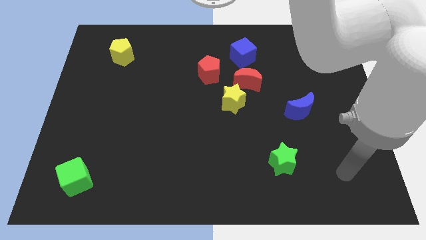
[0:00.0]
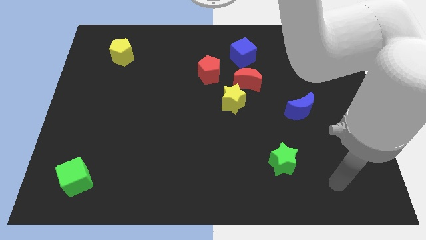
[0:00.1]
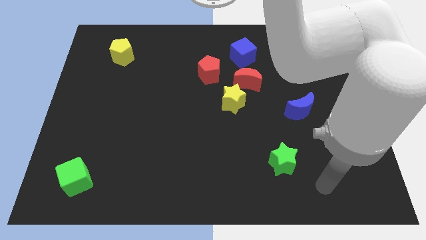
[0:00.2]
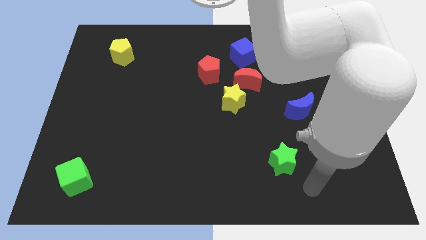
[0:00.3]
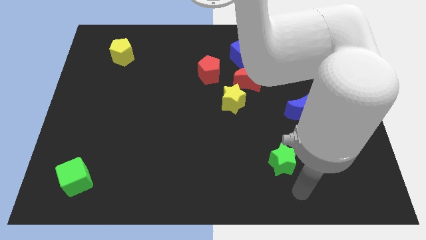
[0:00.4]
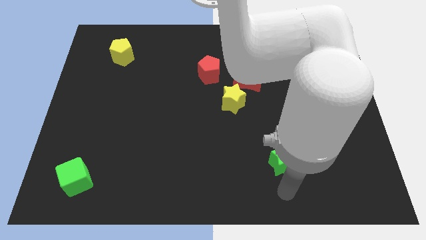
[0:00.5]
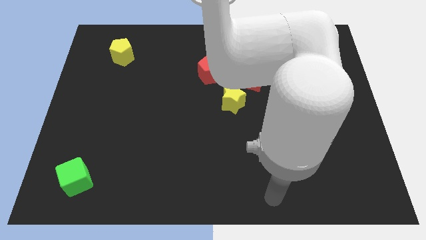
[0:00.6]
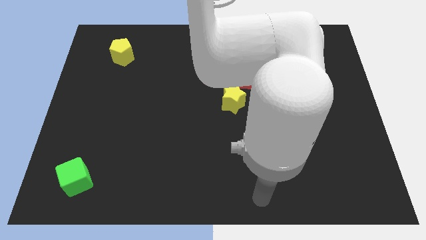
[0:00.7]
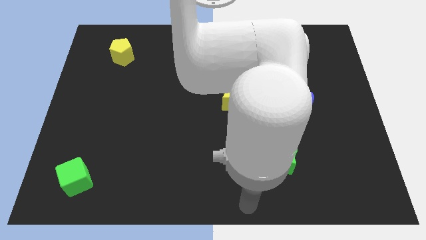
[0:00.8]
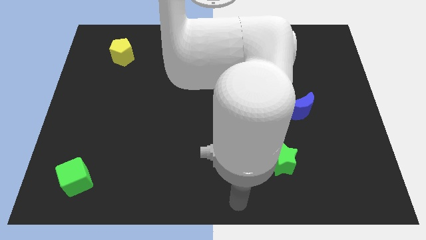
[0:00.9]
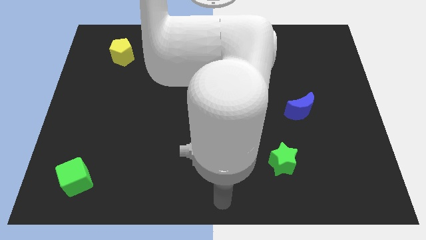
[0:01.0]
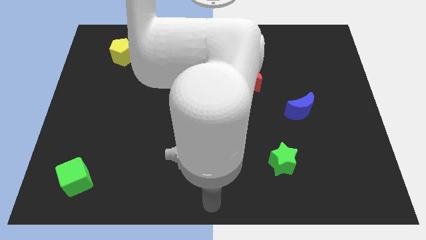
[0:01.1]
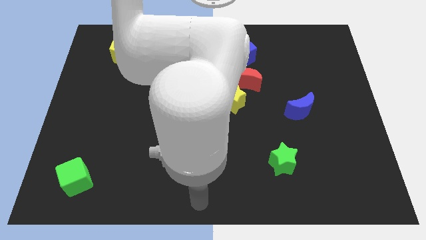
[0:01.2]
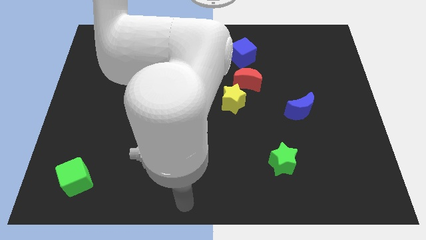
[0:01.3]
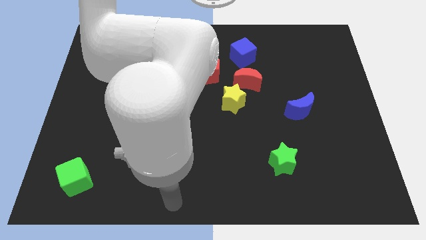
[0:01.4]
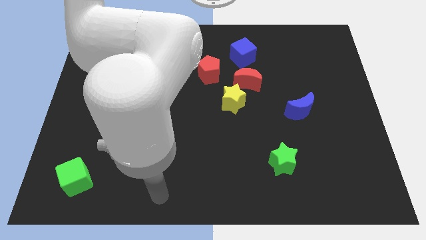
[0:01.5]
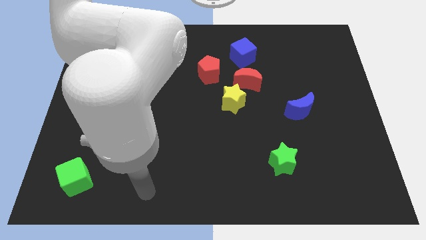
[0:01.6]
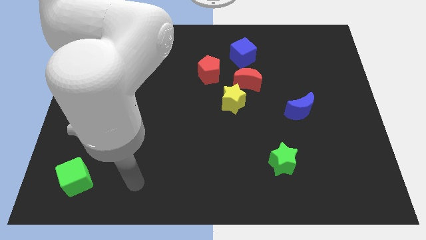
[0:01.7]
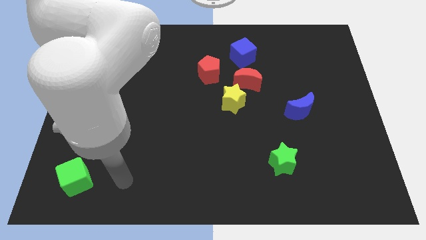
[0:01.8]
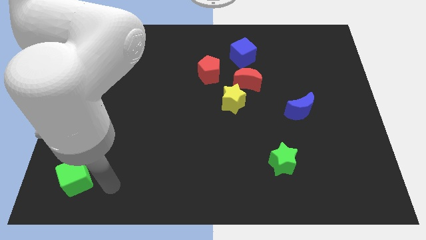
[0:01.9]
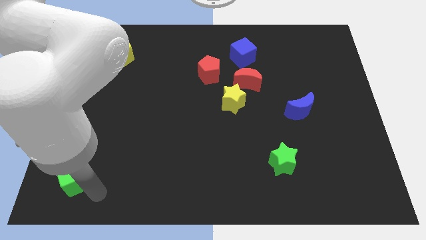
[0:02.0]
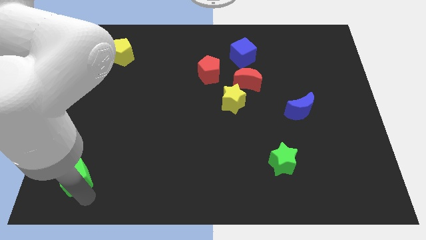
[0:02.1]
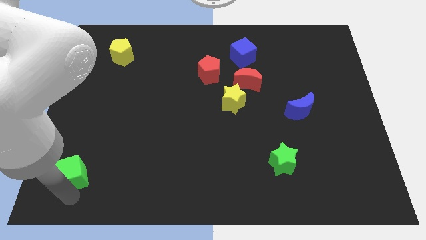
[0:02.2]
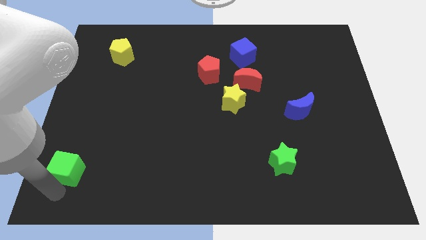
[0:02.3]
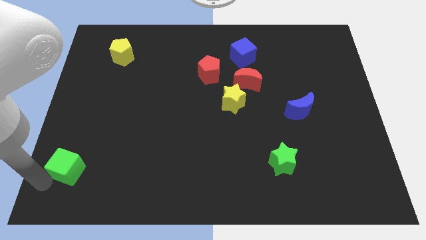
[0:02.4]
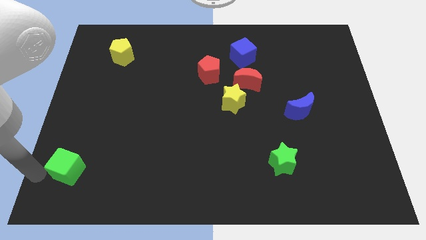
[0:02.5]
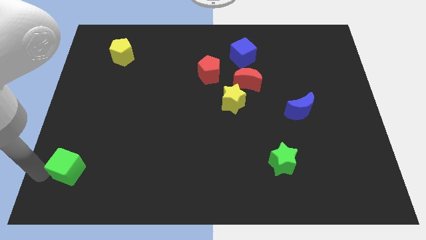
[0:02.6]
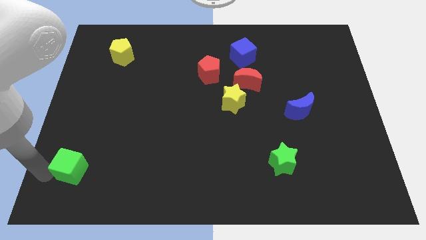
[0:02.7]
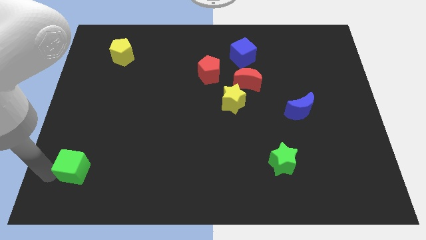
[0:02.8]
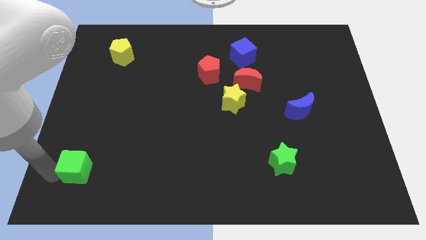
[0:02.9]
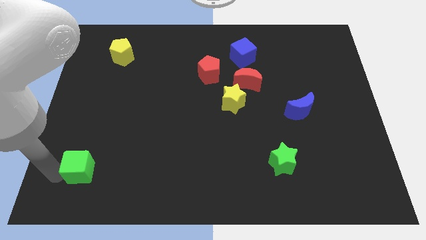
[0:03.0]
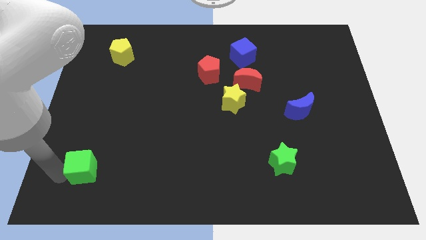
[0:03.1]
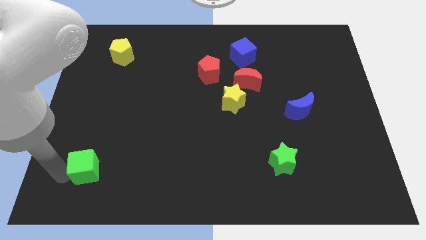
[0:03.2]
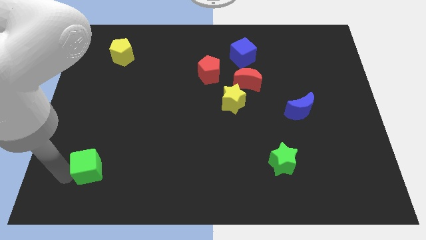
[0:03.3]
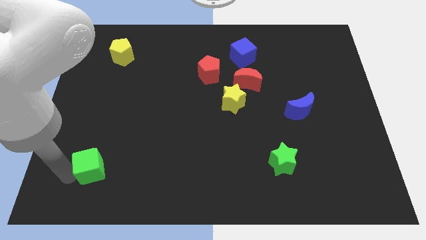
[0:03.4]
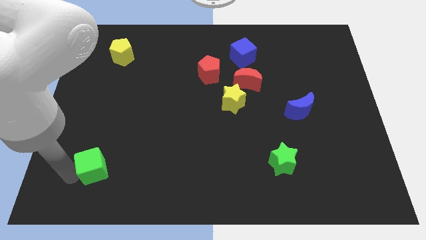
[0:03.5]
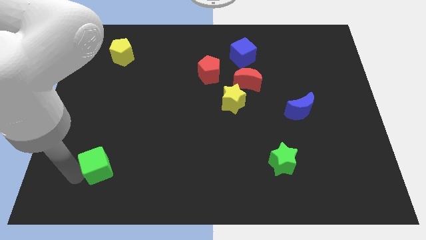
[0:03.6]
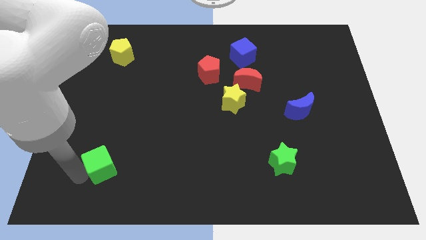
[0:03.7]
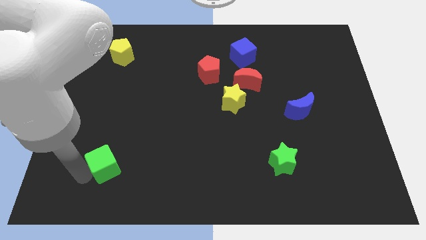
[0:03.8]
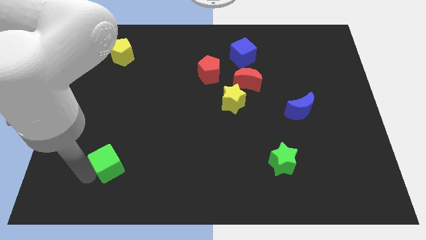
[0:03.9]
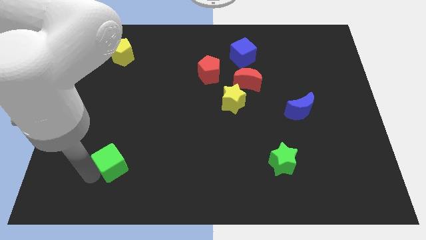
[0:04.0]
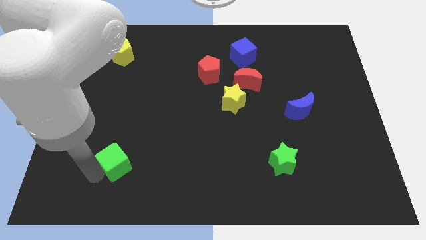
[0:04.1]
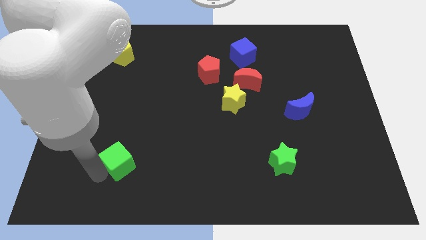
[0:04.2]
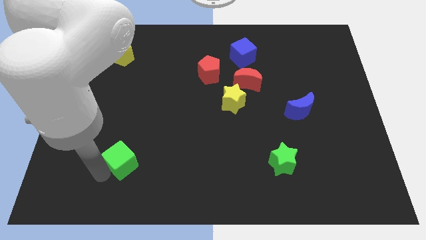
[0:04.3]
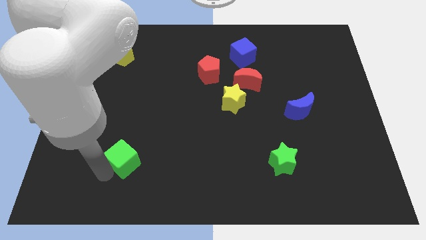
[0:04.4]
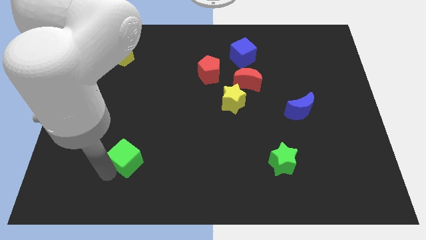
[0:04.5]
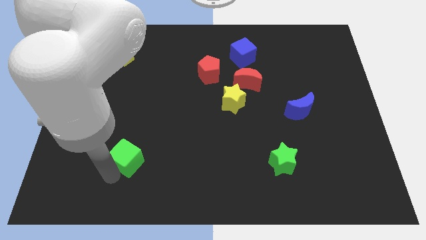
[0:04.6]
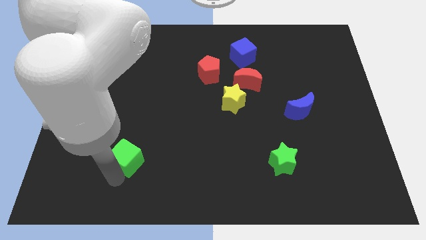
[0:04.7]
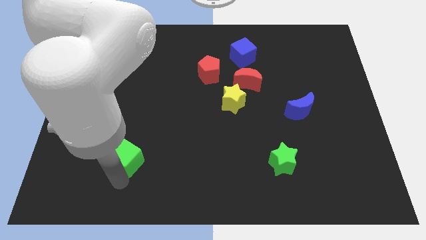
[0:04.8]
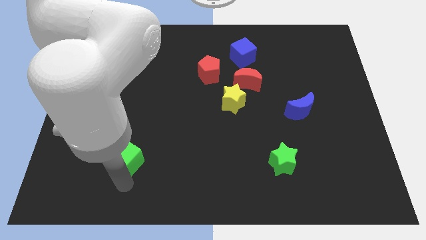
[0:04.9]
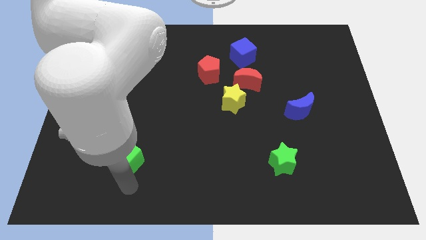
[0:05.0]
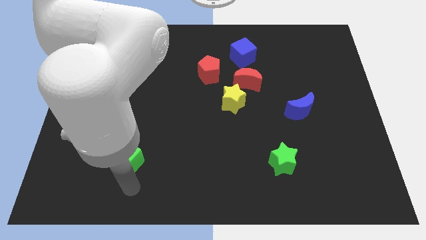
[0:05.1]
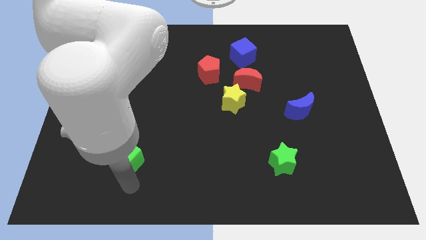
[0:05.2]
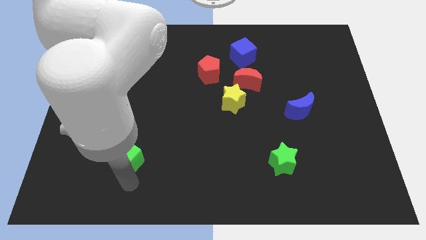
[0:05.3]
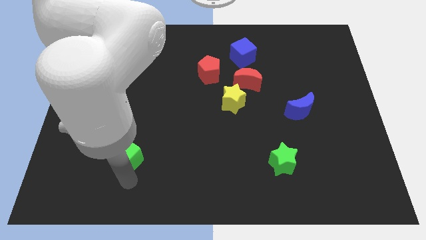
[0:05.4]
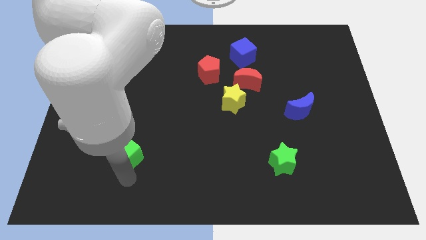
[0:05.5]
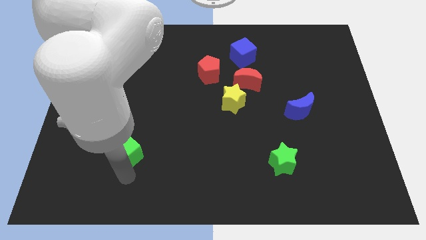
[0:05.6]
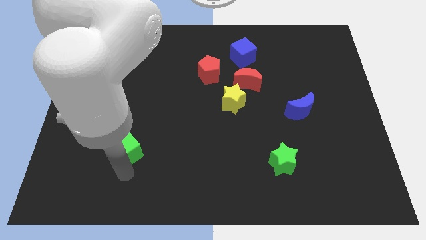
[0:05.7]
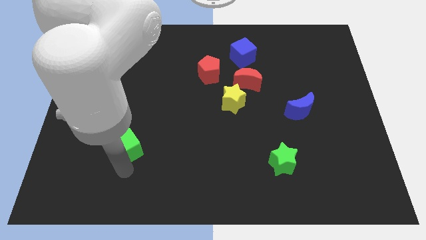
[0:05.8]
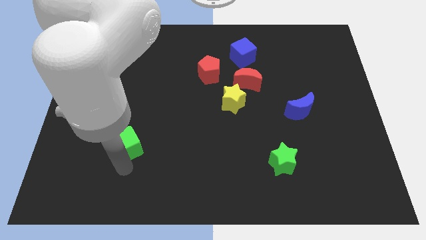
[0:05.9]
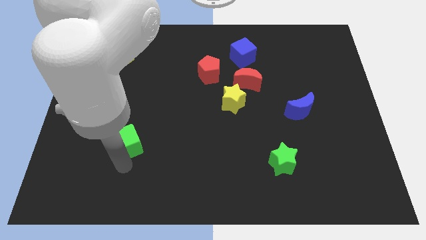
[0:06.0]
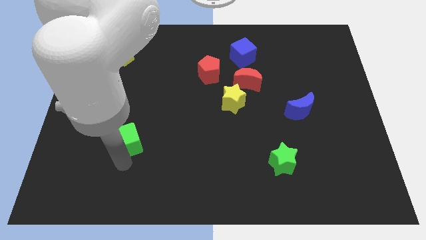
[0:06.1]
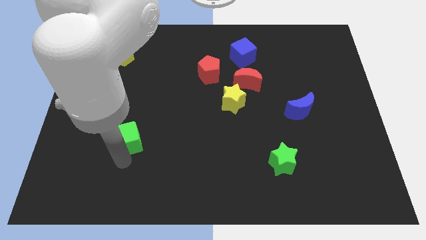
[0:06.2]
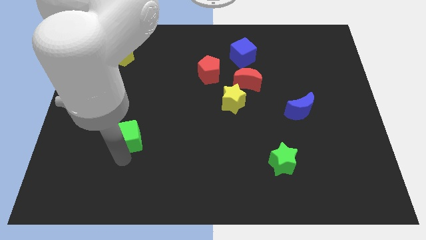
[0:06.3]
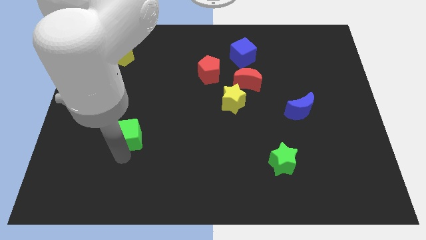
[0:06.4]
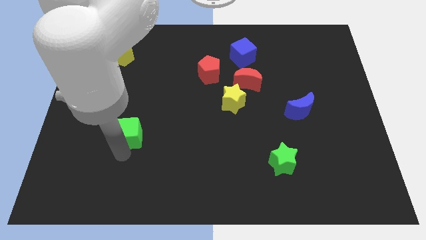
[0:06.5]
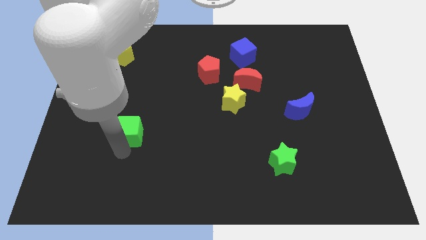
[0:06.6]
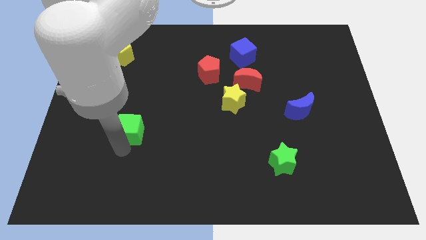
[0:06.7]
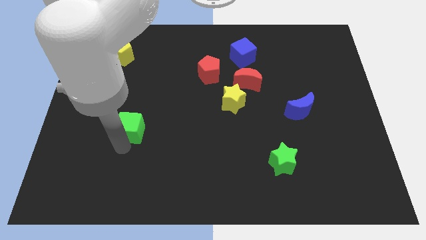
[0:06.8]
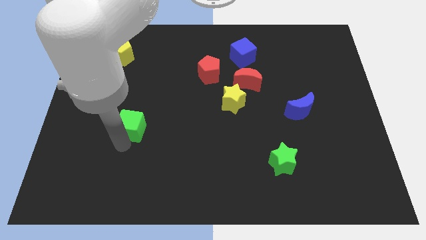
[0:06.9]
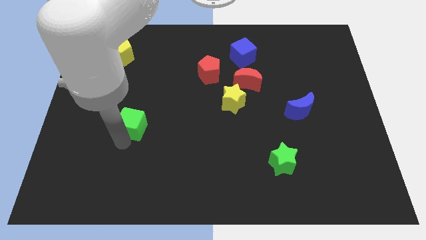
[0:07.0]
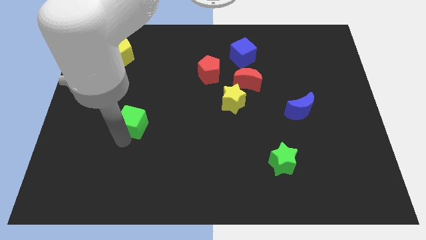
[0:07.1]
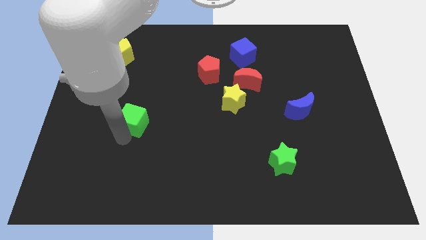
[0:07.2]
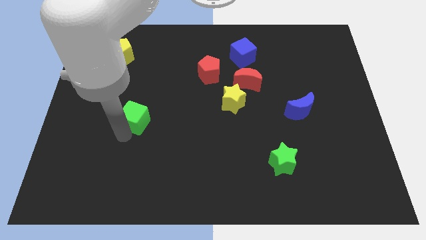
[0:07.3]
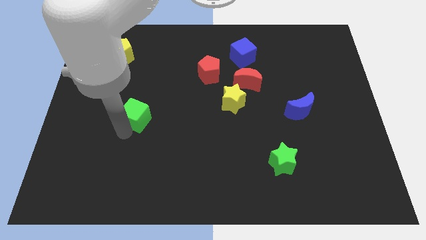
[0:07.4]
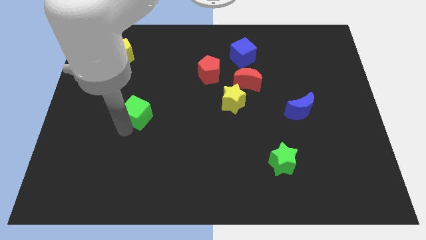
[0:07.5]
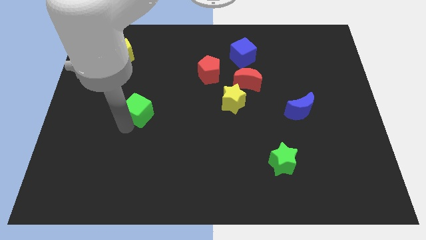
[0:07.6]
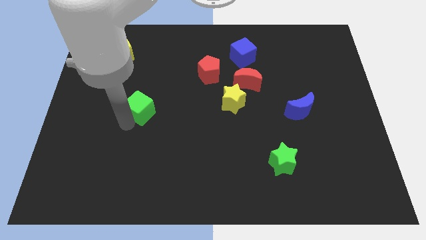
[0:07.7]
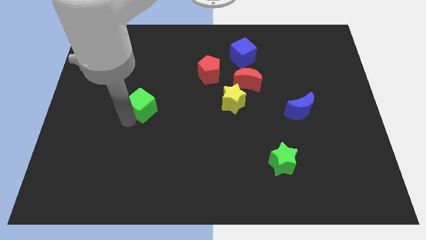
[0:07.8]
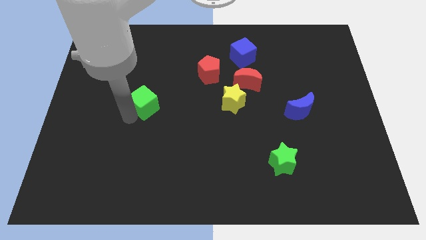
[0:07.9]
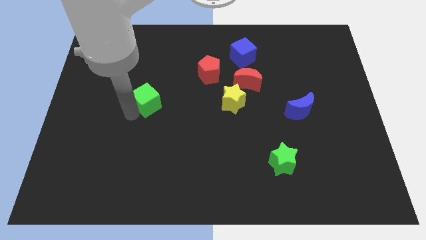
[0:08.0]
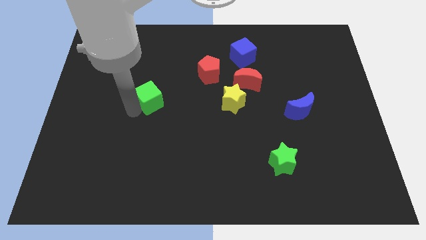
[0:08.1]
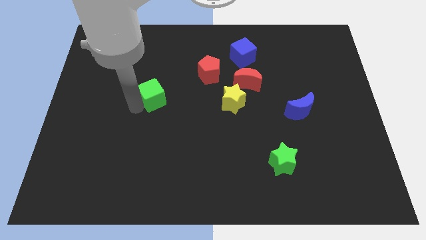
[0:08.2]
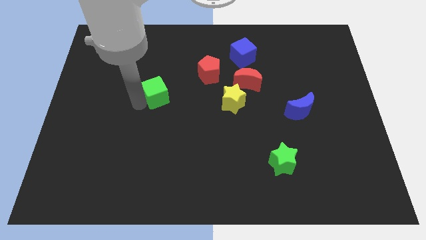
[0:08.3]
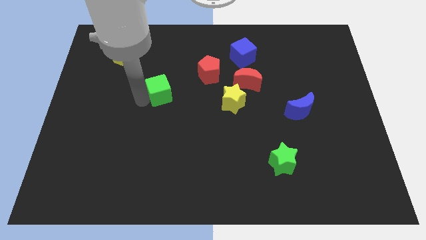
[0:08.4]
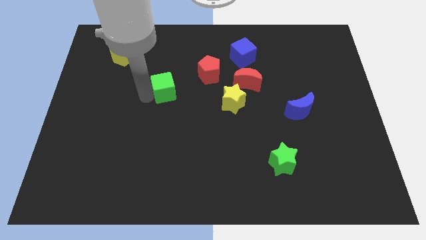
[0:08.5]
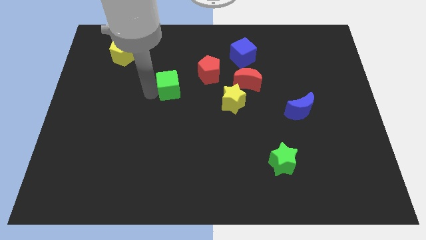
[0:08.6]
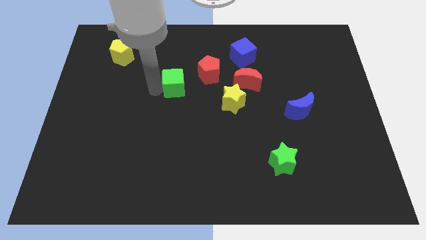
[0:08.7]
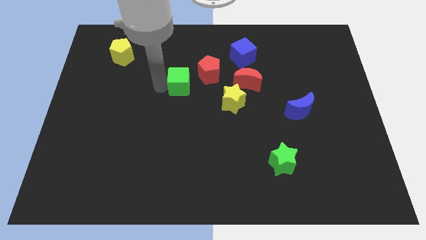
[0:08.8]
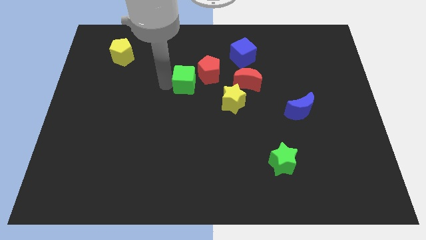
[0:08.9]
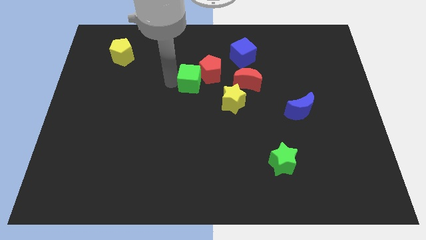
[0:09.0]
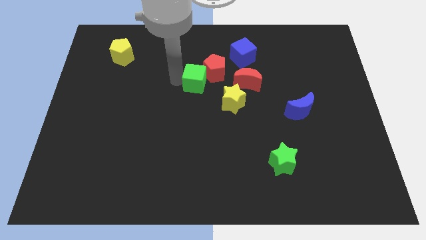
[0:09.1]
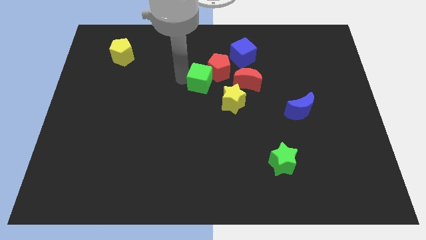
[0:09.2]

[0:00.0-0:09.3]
push the green cube to the bottom side of the red pentagon
